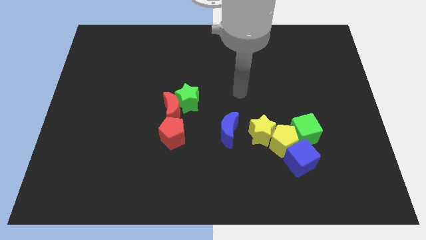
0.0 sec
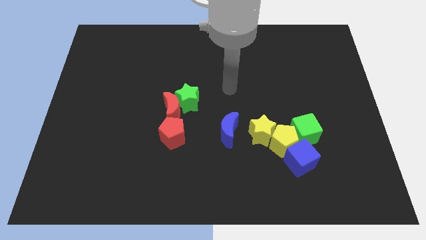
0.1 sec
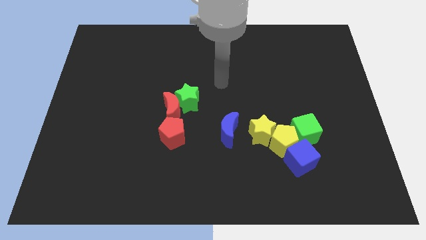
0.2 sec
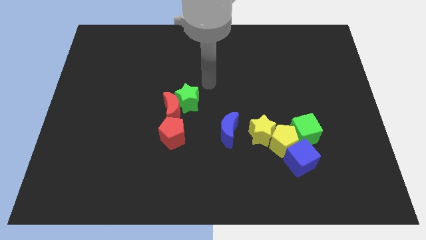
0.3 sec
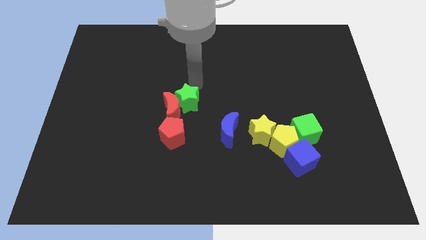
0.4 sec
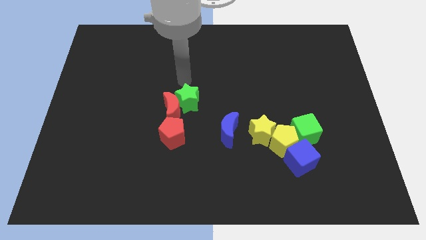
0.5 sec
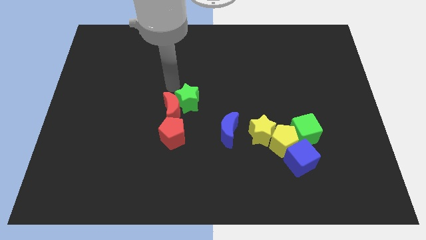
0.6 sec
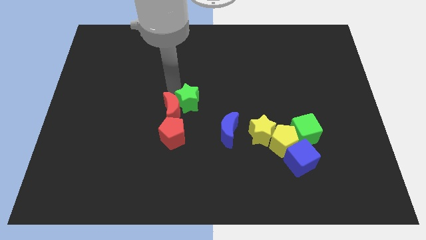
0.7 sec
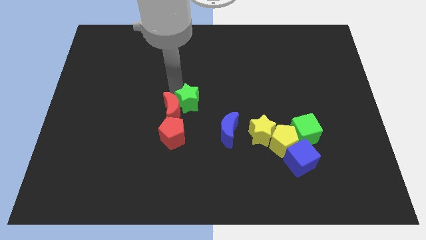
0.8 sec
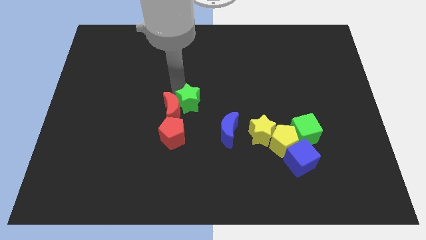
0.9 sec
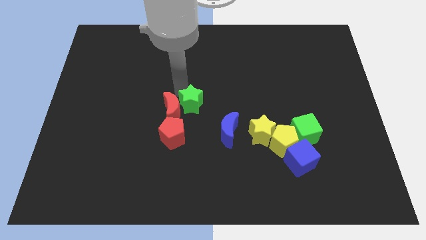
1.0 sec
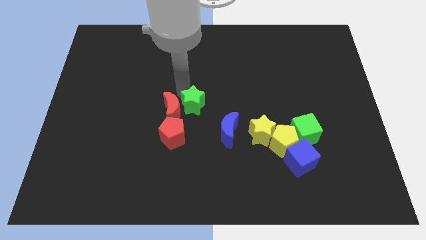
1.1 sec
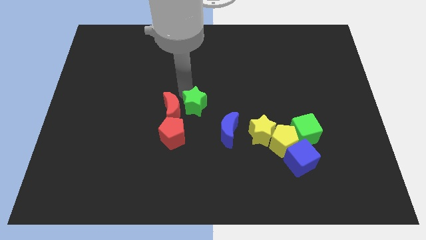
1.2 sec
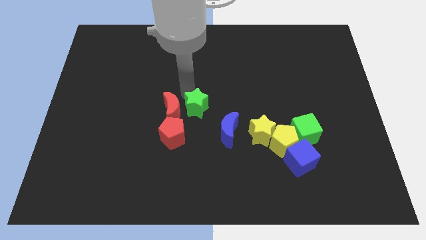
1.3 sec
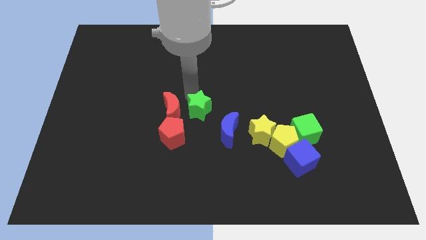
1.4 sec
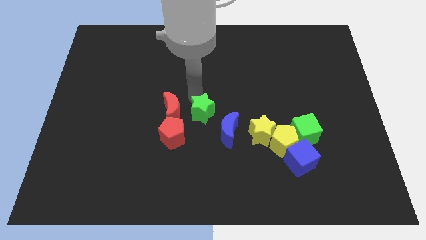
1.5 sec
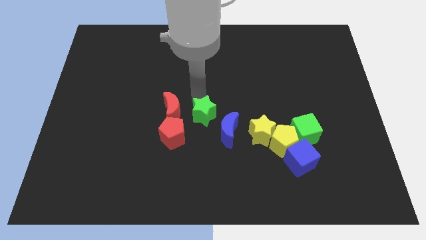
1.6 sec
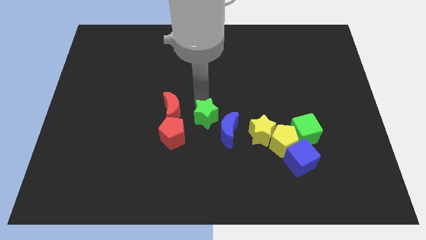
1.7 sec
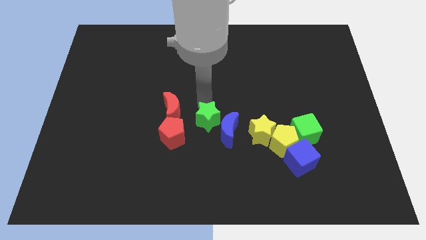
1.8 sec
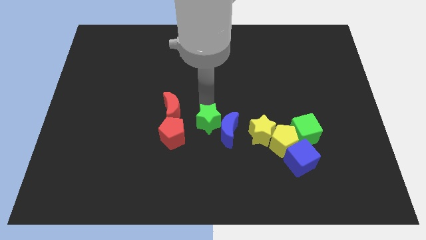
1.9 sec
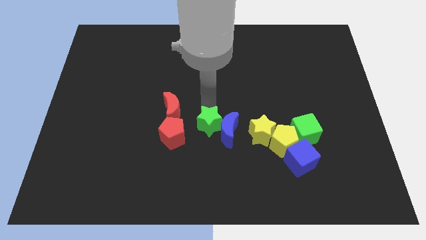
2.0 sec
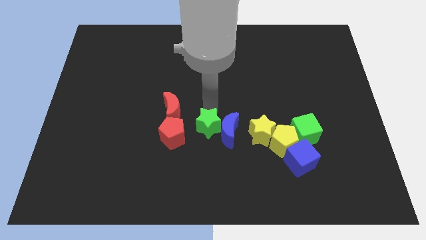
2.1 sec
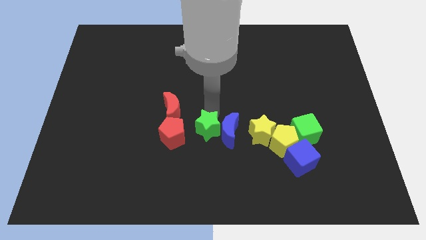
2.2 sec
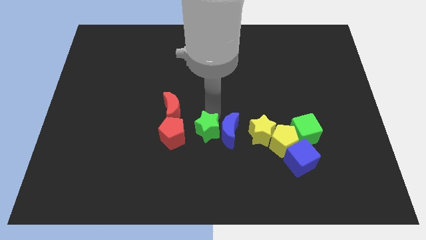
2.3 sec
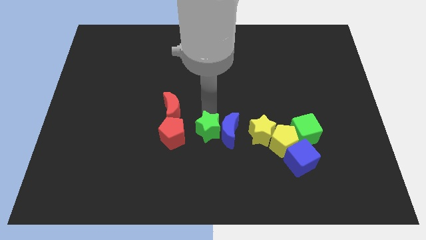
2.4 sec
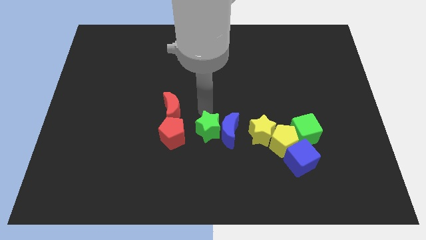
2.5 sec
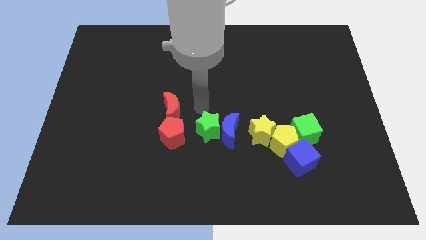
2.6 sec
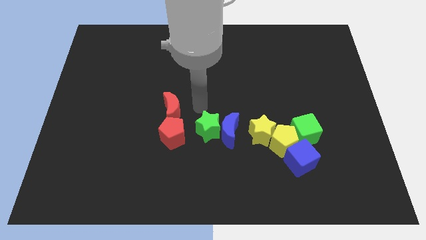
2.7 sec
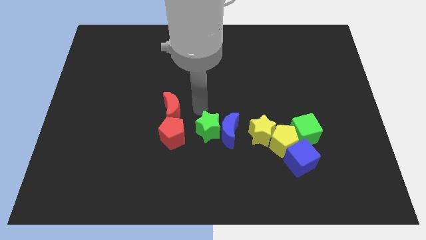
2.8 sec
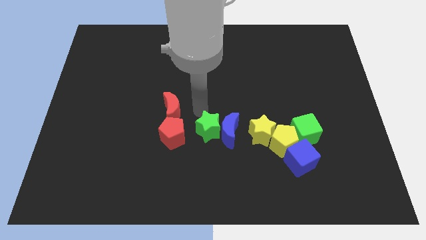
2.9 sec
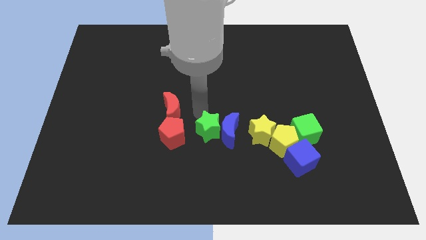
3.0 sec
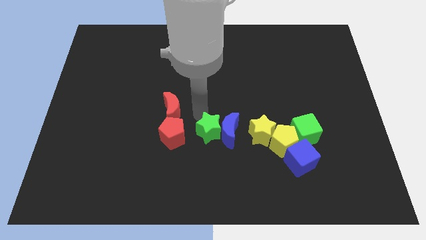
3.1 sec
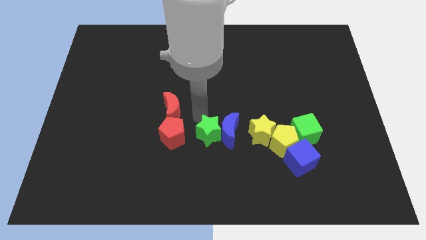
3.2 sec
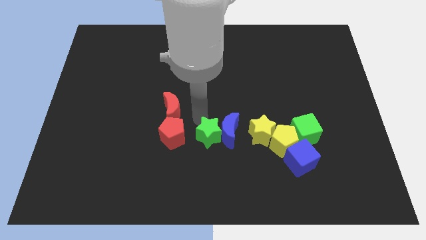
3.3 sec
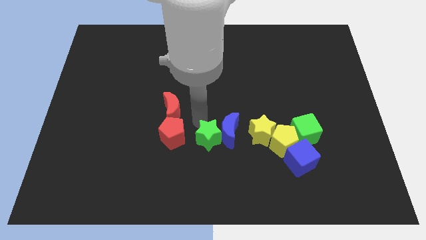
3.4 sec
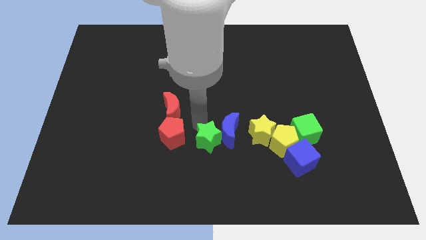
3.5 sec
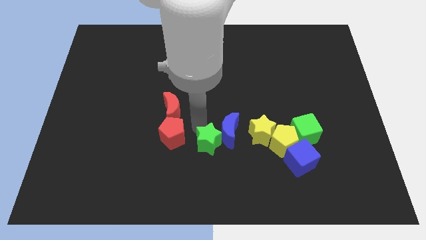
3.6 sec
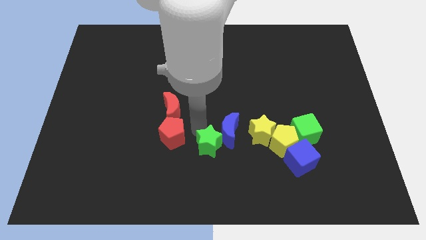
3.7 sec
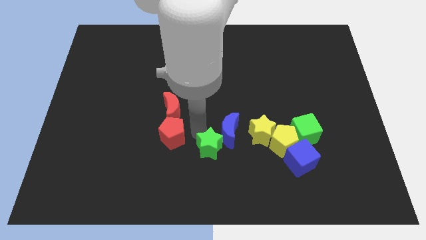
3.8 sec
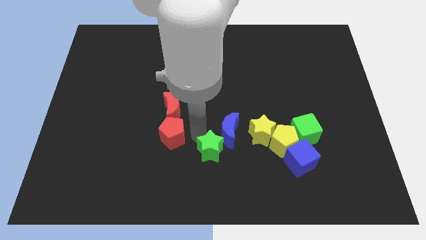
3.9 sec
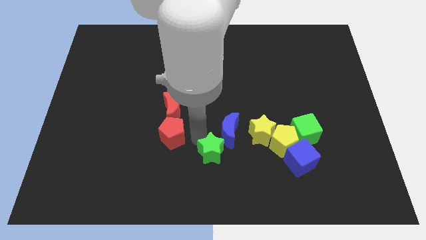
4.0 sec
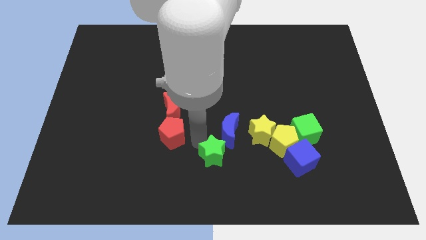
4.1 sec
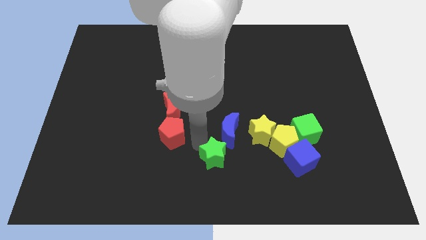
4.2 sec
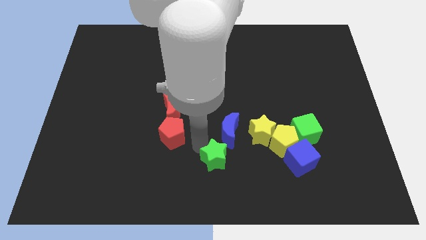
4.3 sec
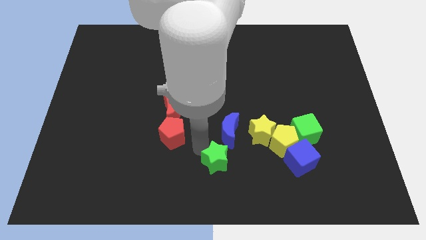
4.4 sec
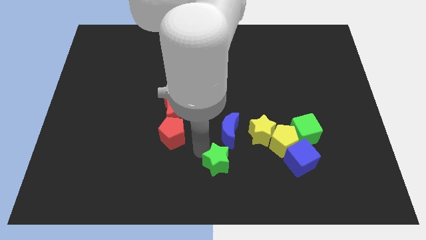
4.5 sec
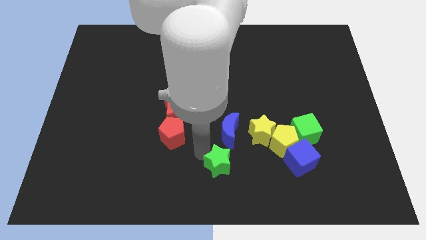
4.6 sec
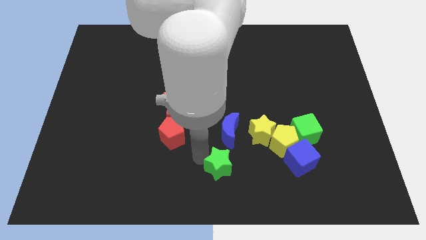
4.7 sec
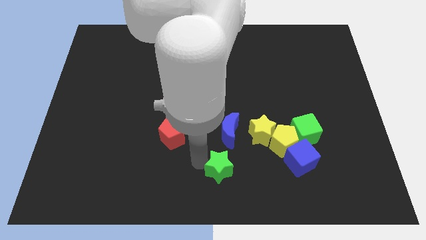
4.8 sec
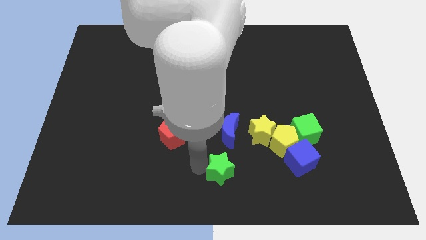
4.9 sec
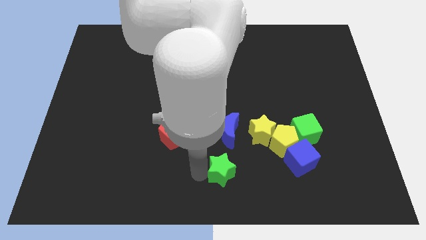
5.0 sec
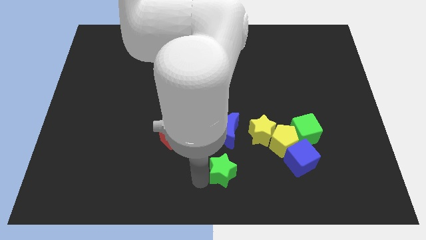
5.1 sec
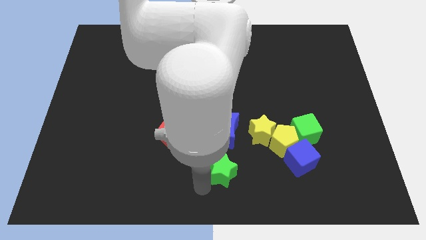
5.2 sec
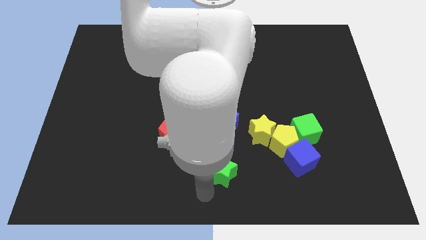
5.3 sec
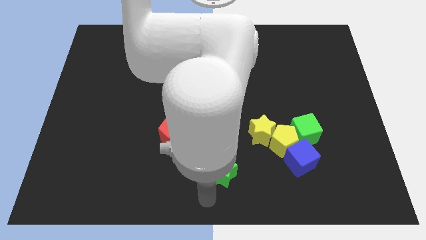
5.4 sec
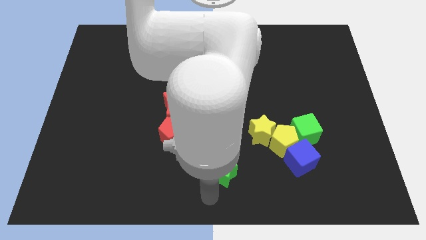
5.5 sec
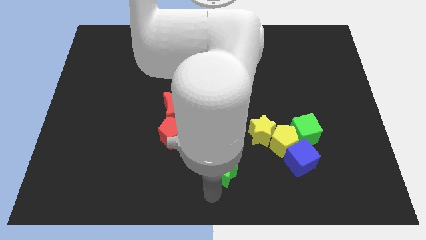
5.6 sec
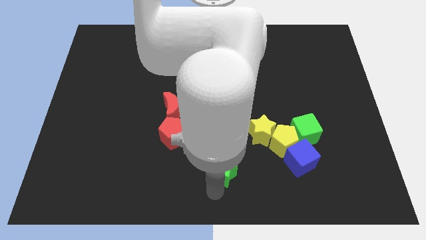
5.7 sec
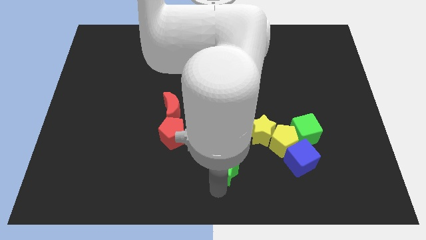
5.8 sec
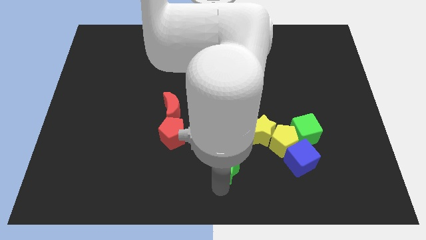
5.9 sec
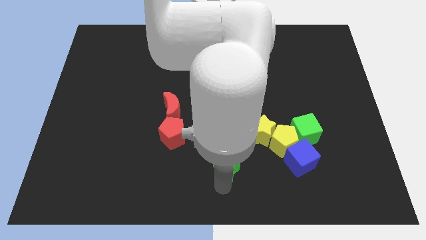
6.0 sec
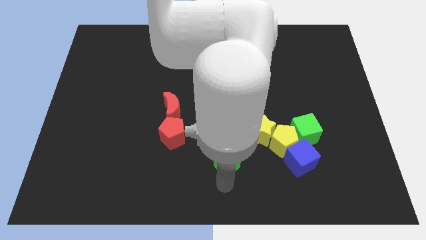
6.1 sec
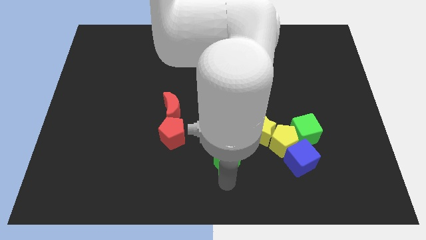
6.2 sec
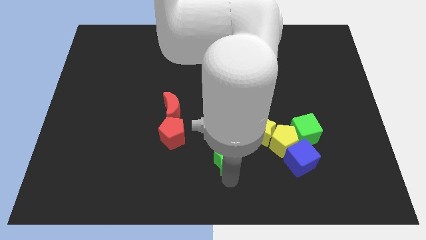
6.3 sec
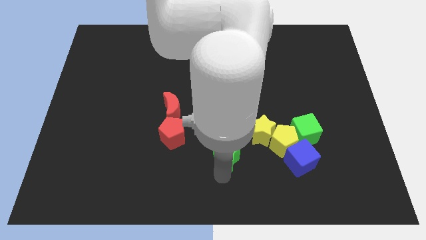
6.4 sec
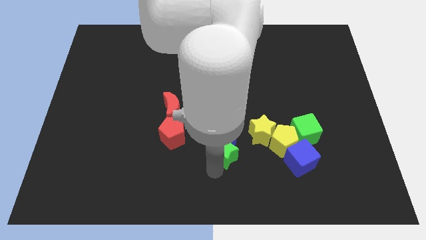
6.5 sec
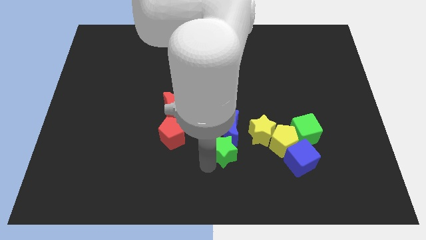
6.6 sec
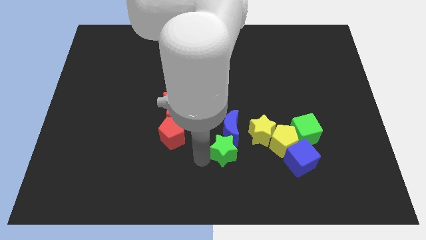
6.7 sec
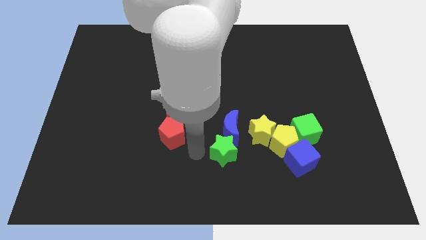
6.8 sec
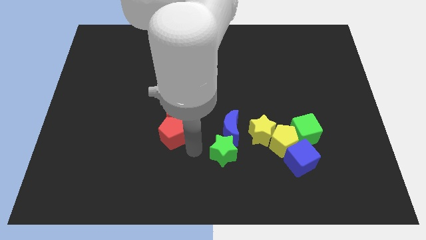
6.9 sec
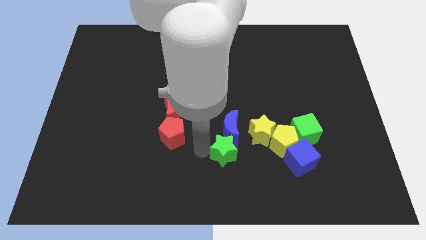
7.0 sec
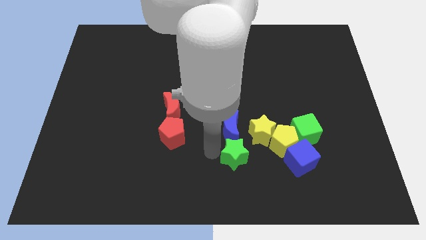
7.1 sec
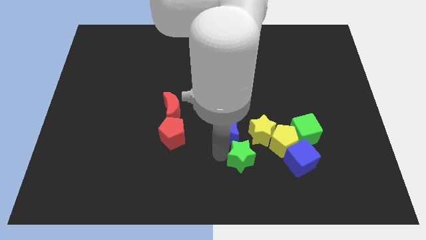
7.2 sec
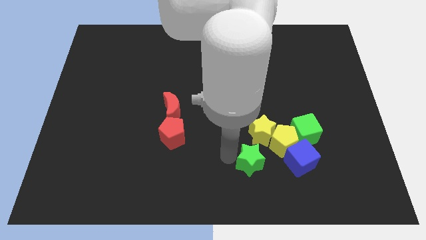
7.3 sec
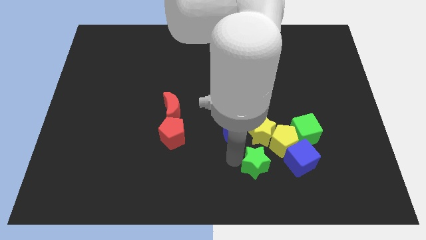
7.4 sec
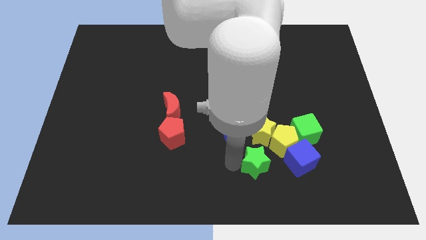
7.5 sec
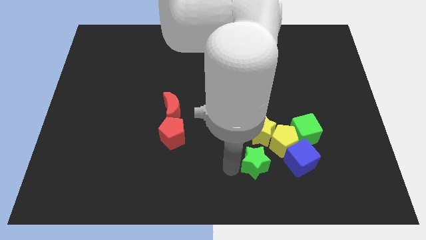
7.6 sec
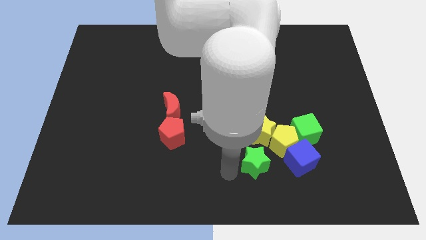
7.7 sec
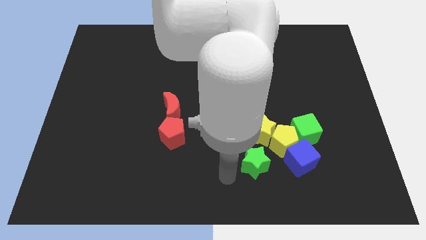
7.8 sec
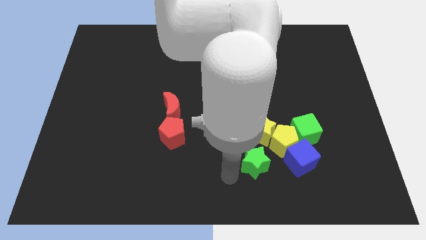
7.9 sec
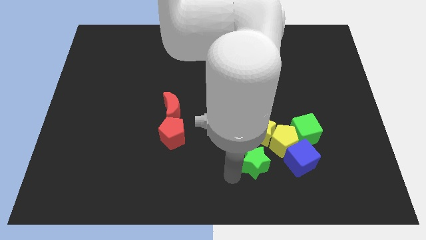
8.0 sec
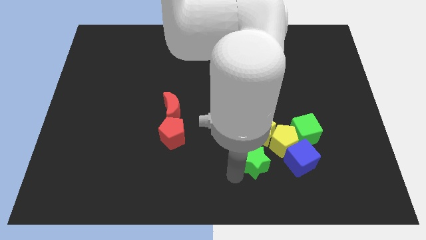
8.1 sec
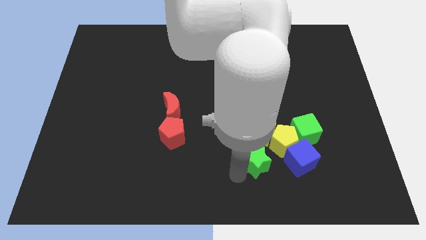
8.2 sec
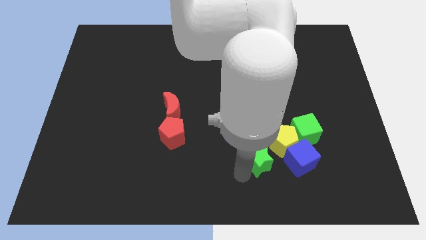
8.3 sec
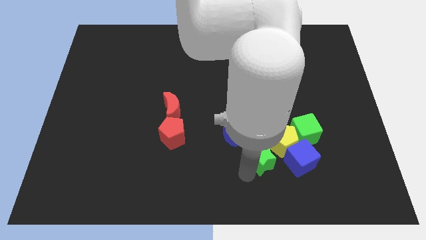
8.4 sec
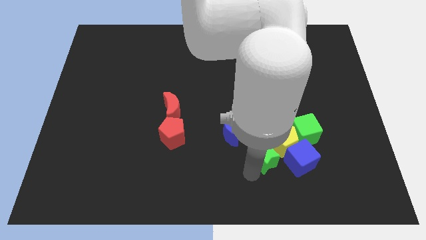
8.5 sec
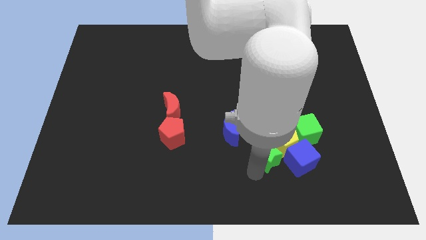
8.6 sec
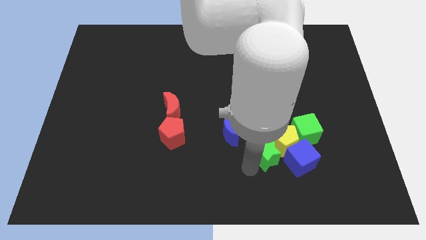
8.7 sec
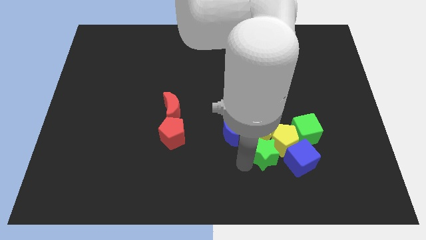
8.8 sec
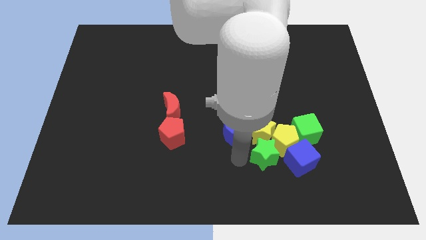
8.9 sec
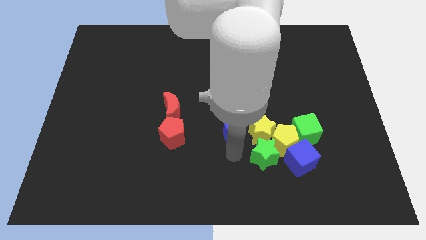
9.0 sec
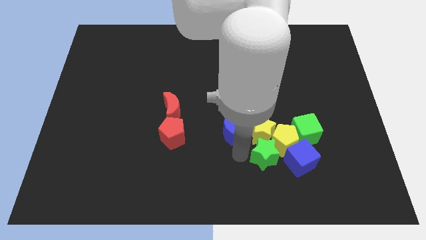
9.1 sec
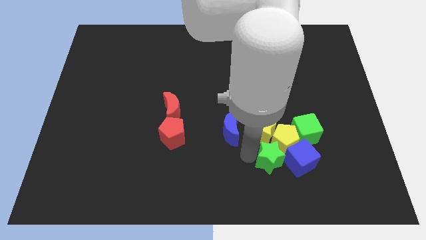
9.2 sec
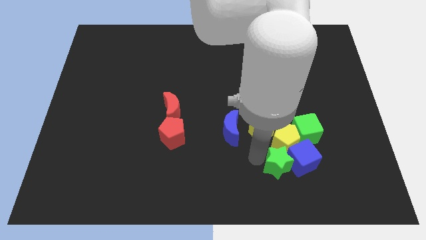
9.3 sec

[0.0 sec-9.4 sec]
slide the green star close to the blue cube
